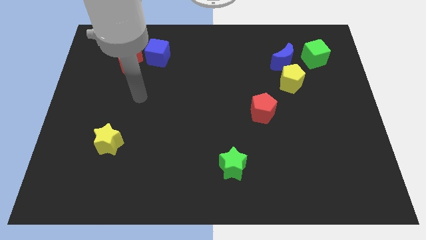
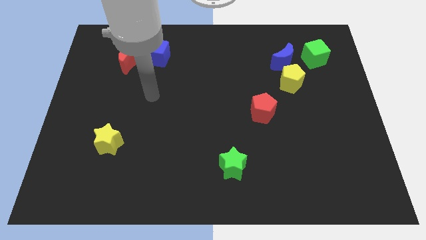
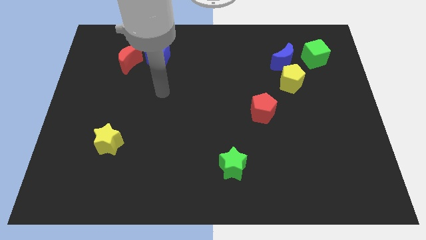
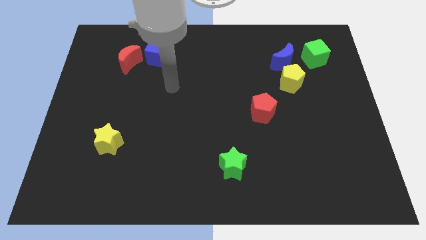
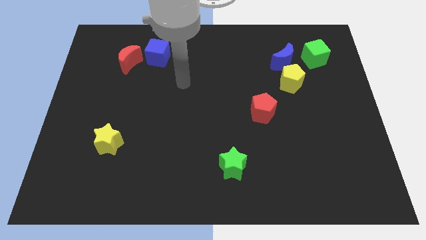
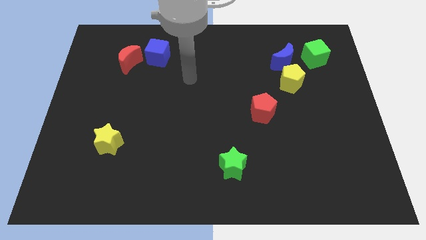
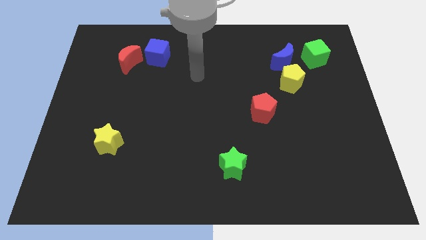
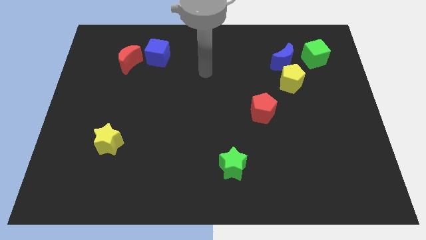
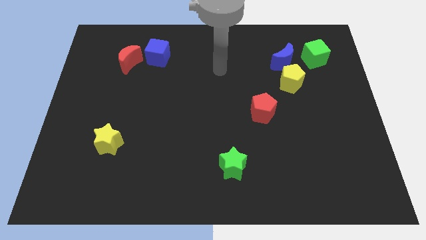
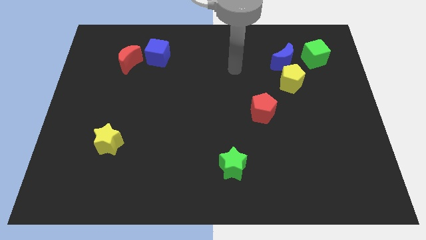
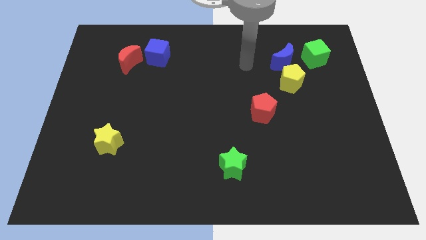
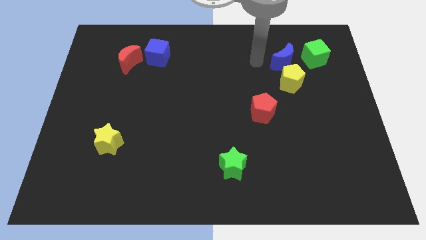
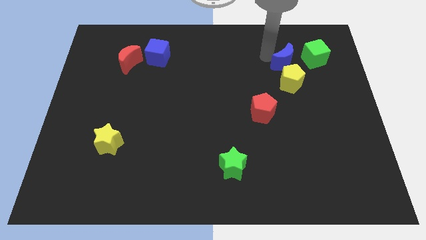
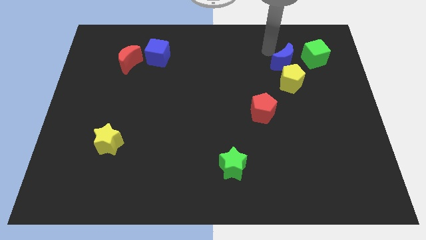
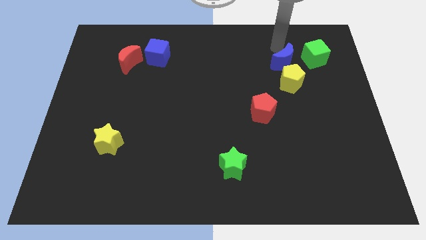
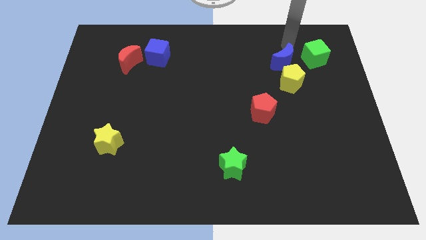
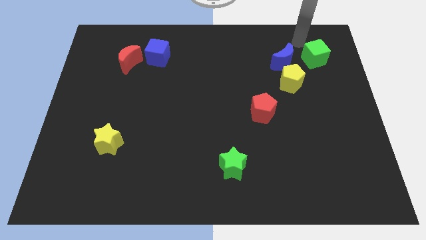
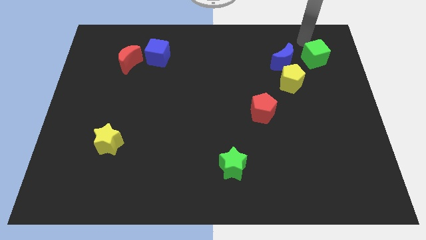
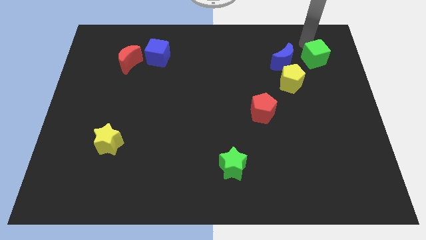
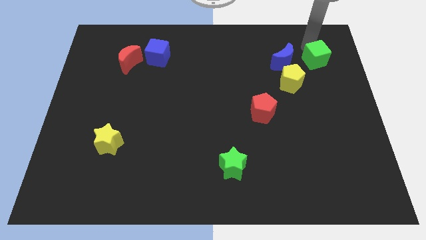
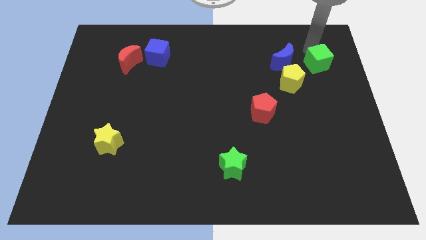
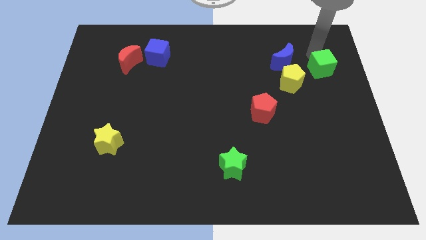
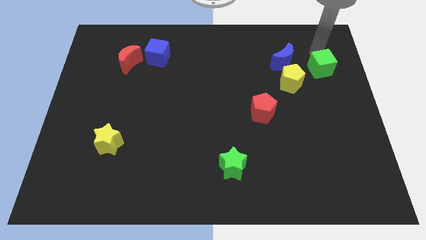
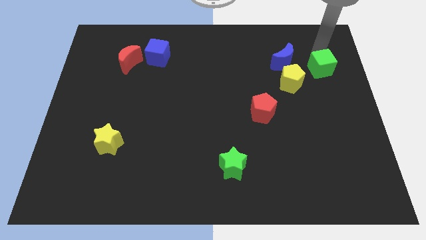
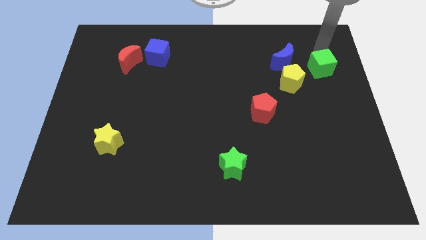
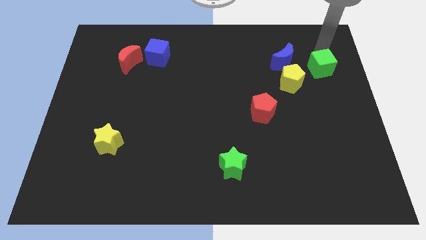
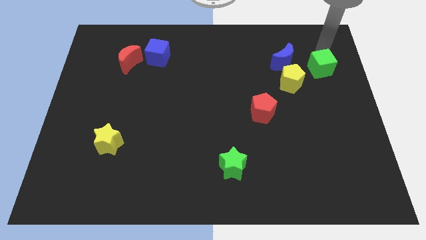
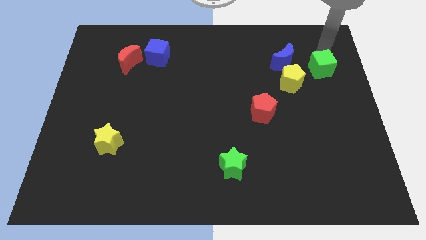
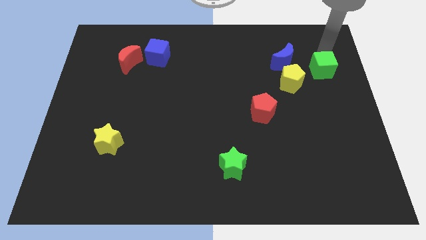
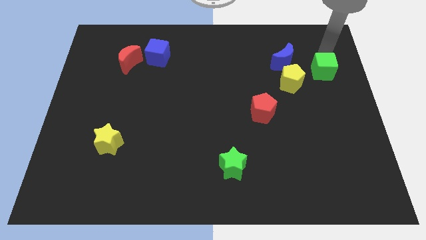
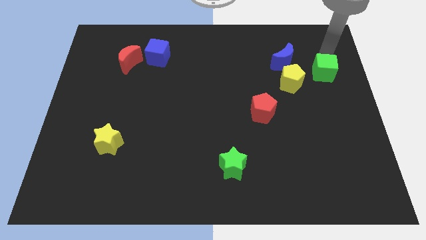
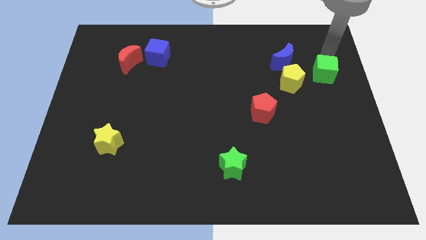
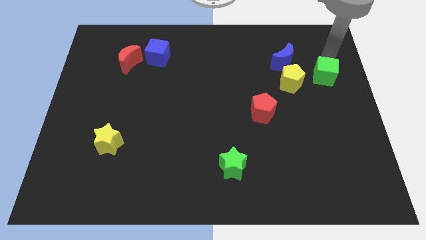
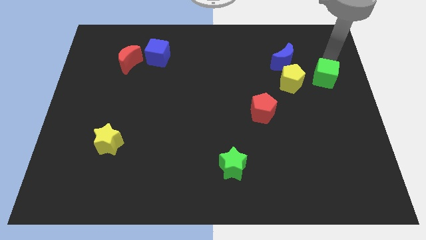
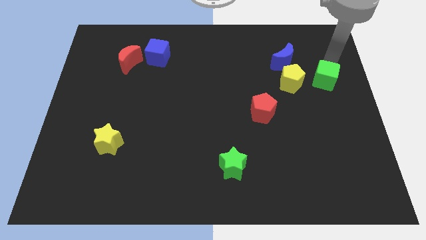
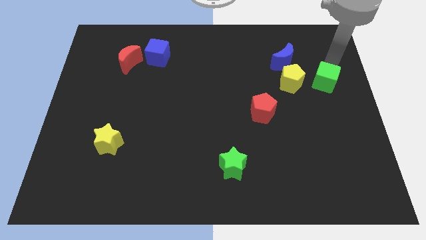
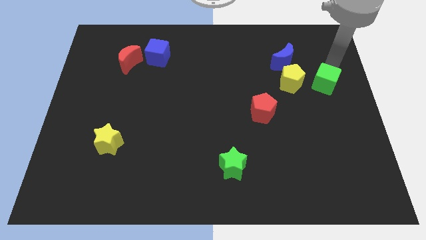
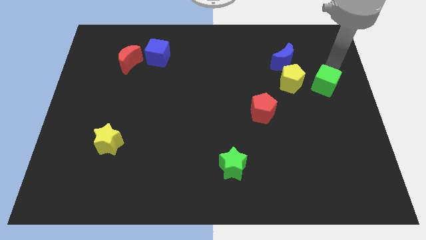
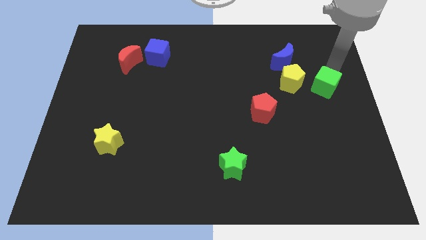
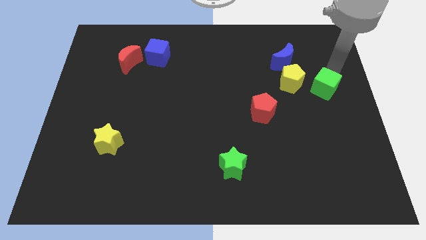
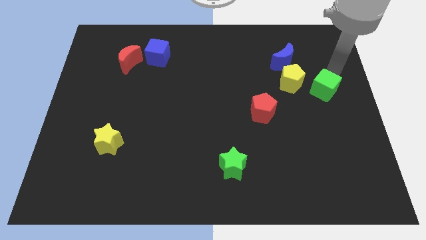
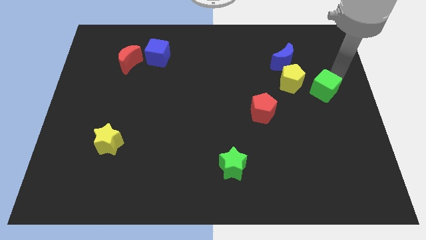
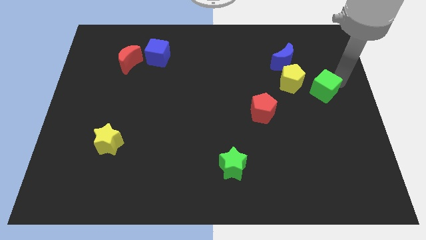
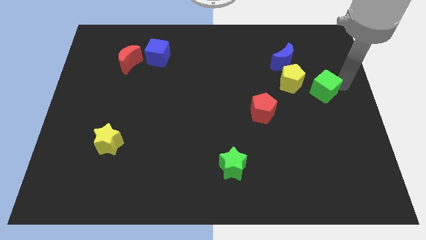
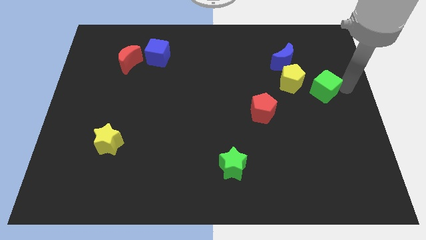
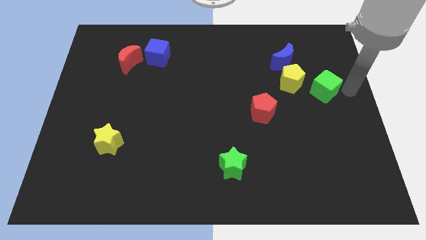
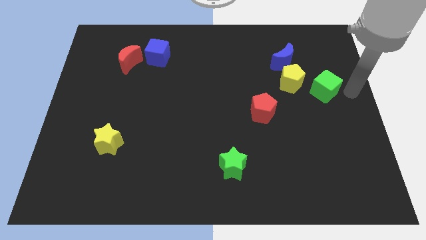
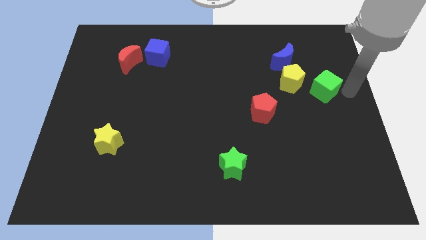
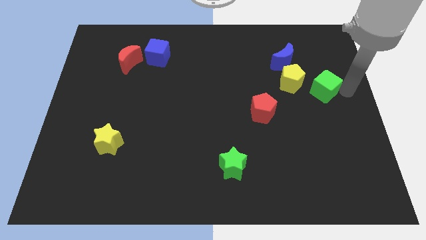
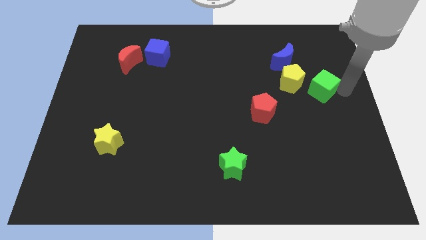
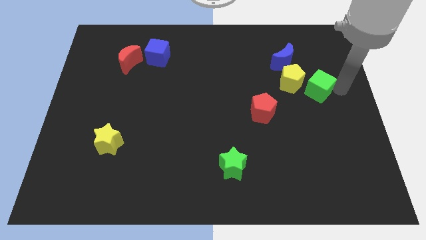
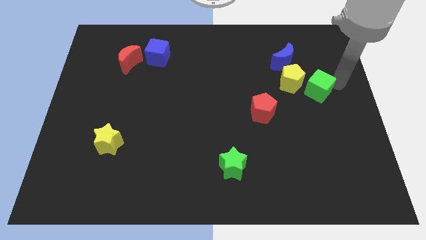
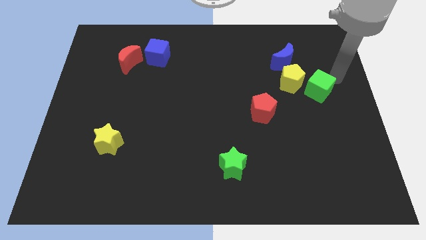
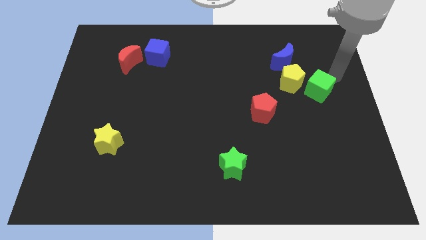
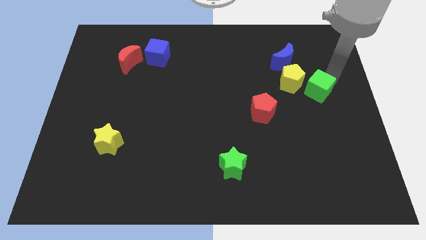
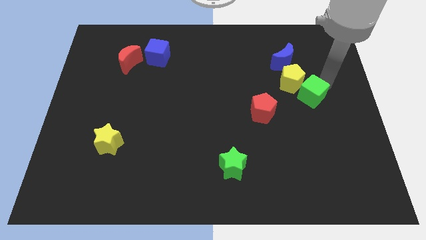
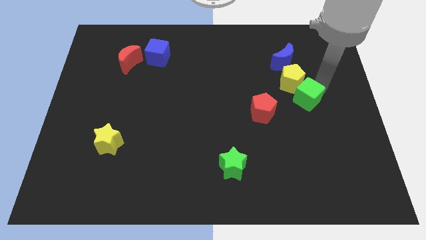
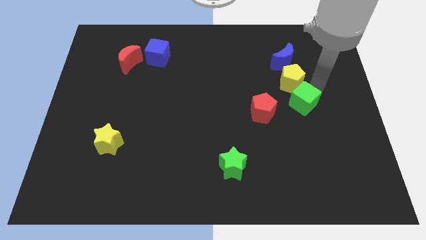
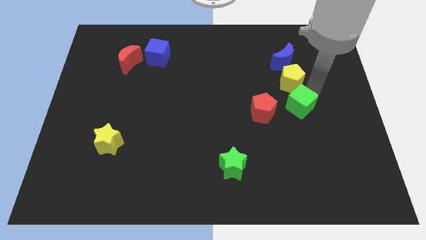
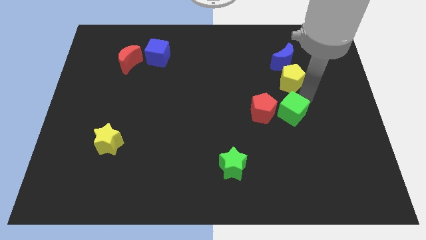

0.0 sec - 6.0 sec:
move the green cube diagonally down and to the right of the red pentagon

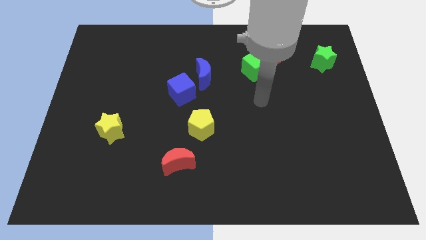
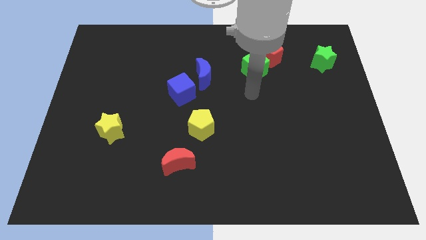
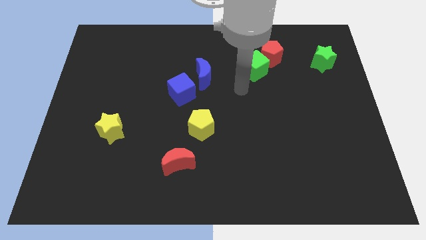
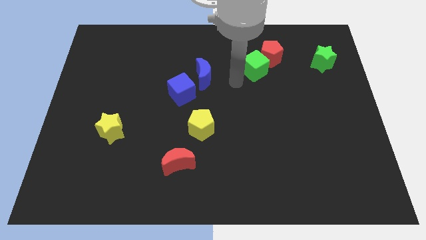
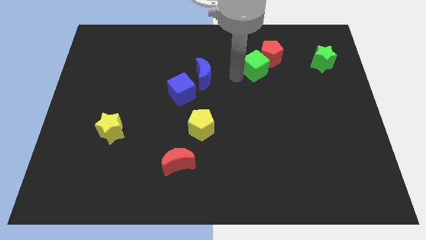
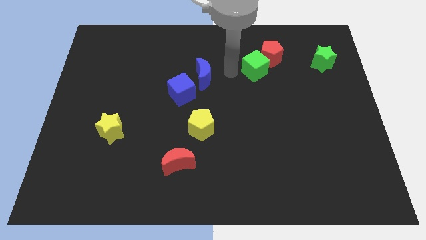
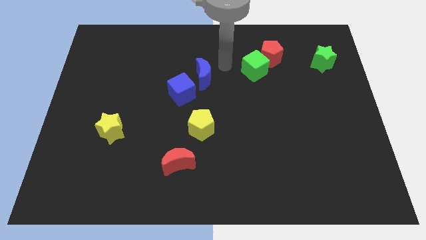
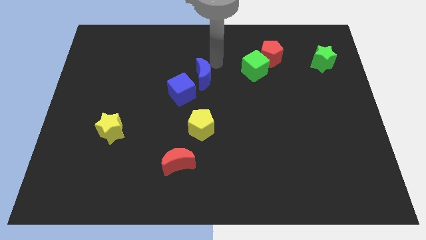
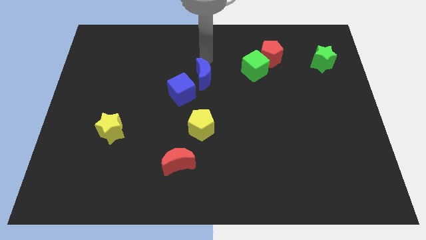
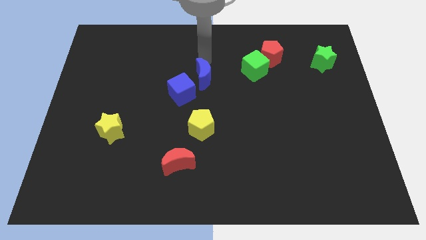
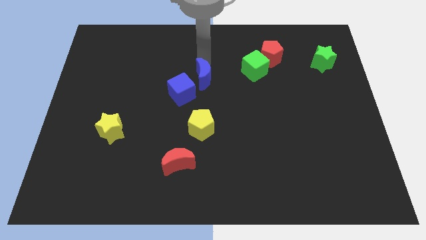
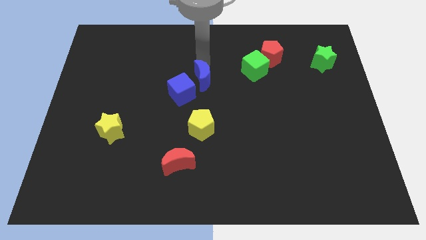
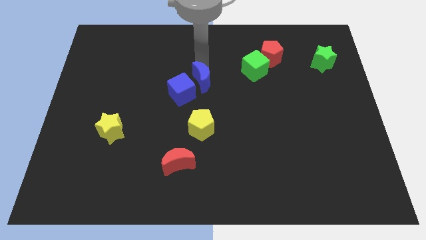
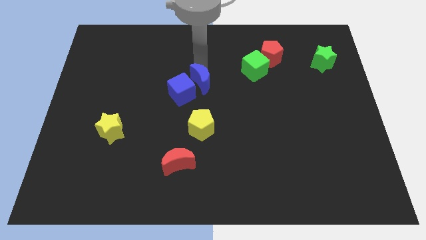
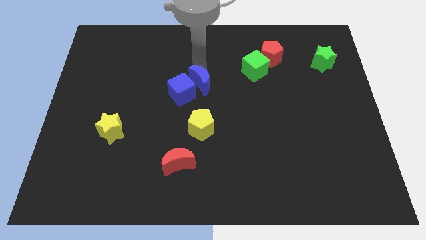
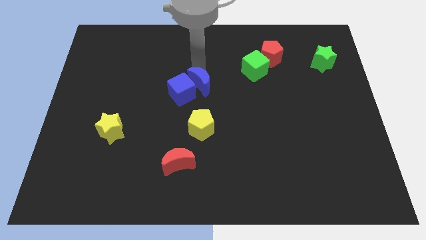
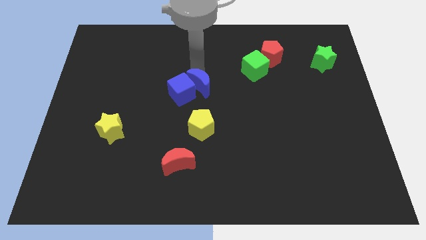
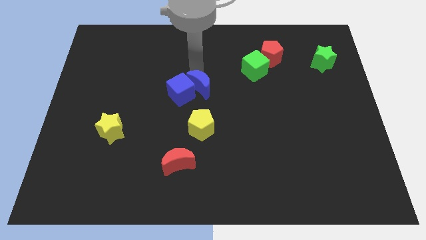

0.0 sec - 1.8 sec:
put the blue moon to the bottom right side of the blue cube
